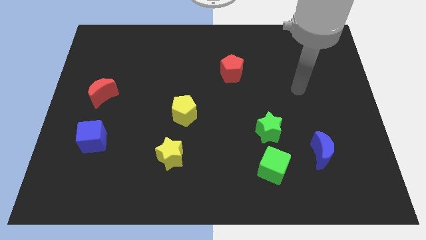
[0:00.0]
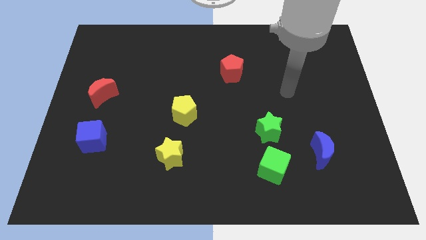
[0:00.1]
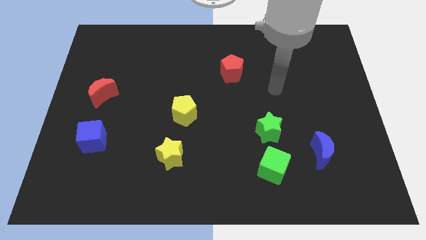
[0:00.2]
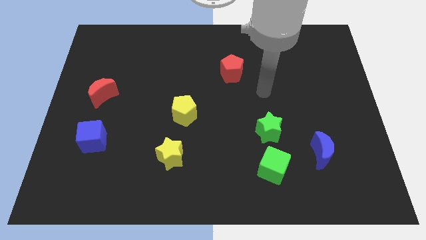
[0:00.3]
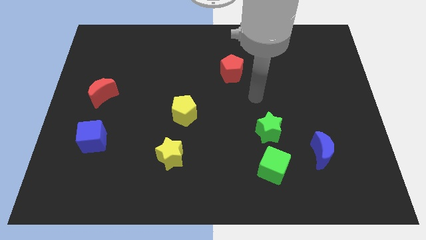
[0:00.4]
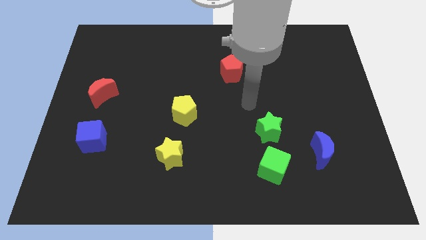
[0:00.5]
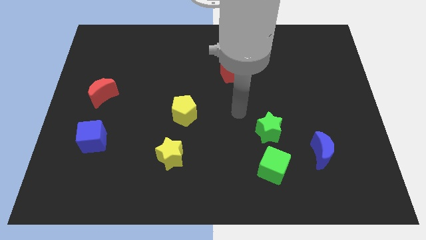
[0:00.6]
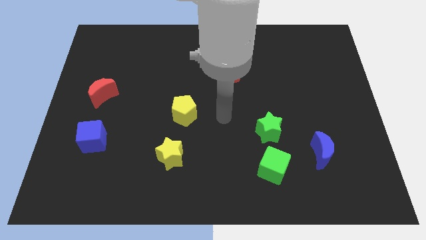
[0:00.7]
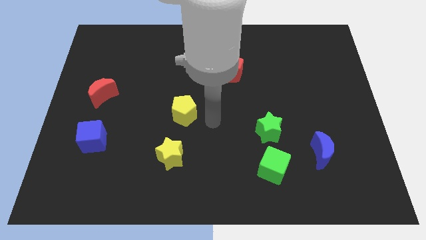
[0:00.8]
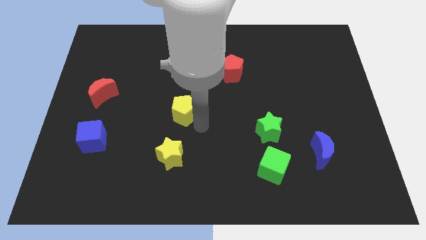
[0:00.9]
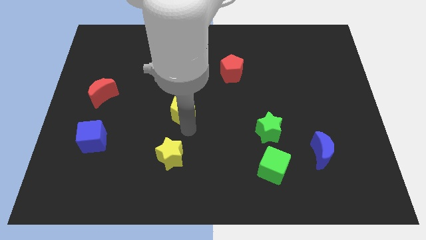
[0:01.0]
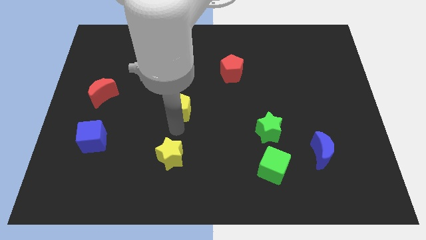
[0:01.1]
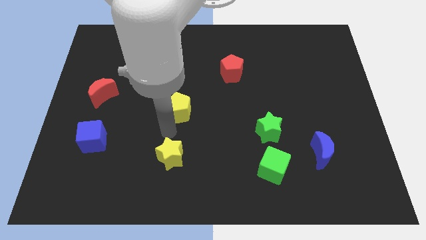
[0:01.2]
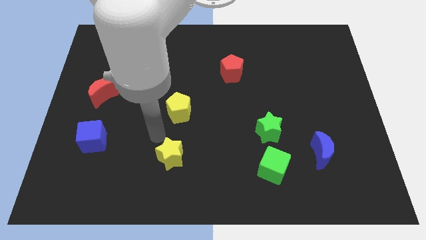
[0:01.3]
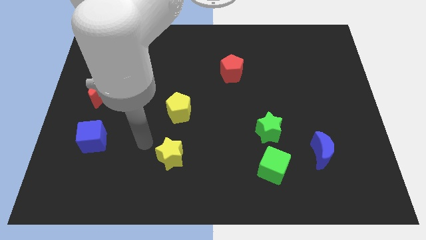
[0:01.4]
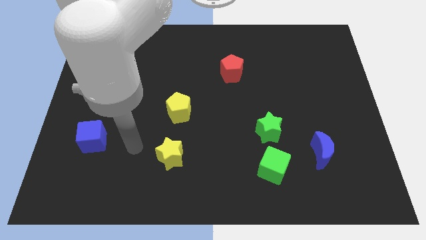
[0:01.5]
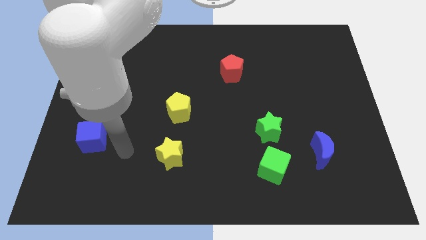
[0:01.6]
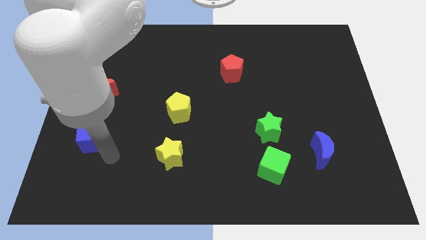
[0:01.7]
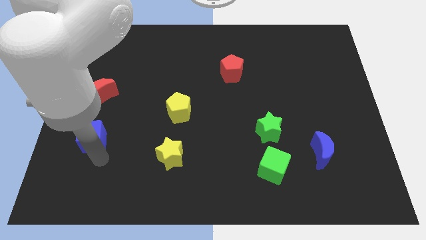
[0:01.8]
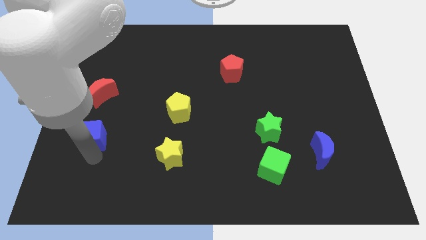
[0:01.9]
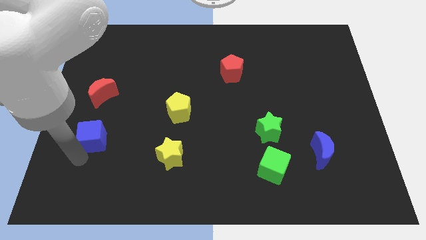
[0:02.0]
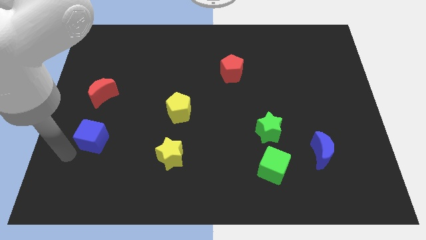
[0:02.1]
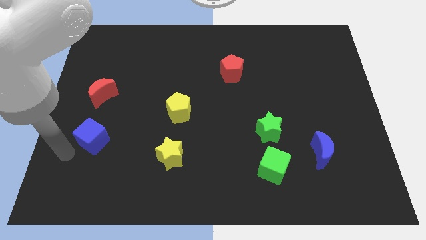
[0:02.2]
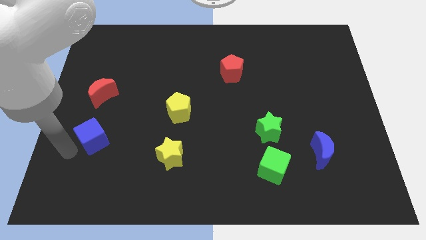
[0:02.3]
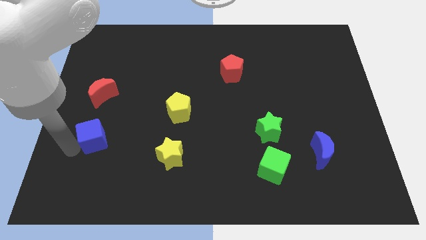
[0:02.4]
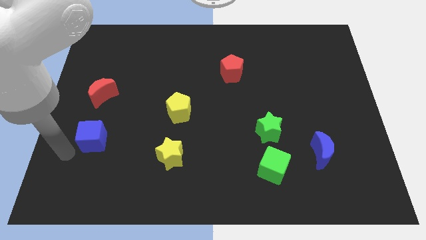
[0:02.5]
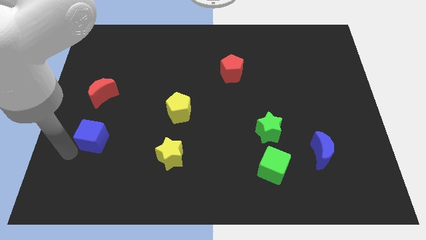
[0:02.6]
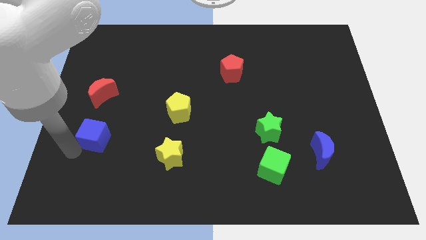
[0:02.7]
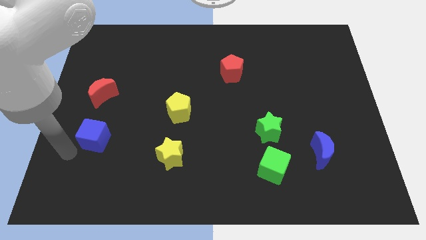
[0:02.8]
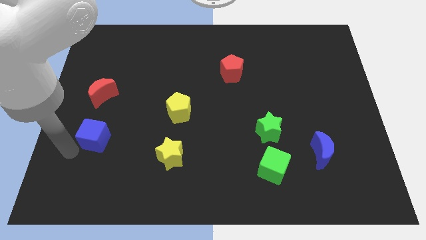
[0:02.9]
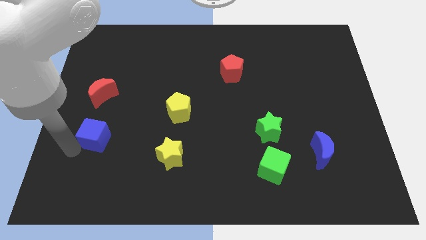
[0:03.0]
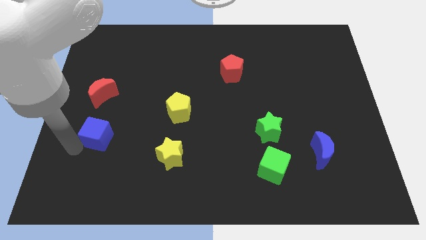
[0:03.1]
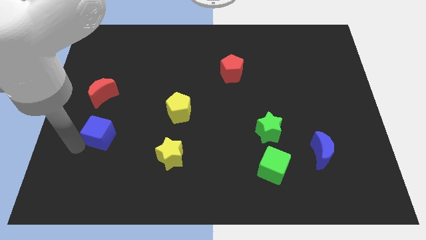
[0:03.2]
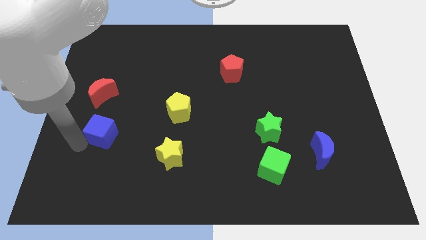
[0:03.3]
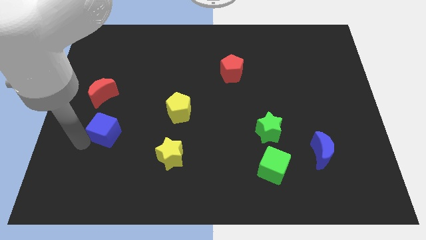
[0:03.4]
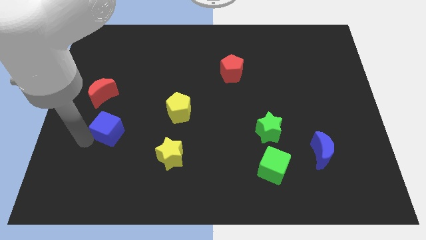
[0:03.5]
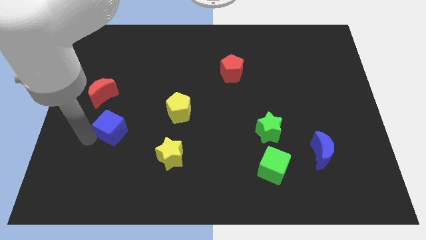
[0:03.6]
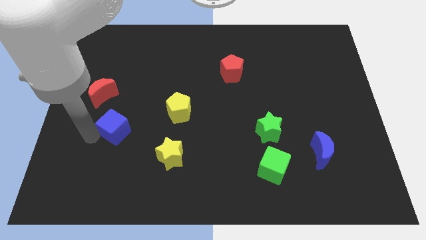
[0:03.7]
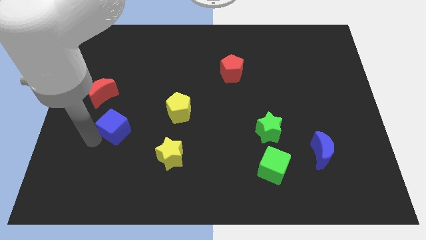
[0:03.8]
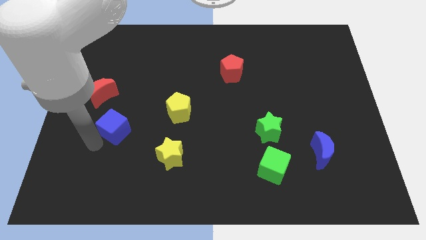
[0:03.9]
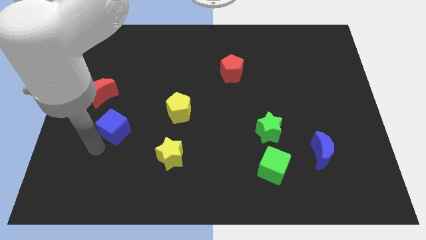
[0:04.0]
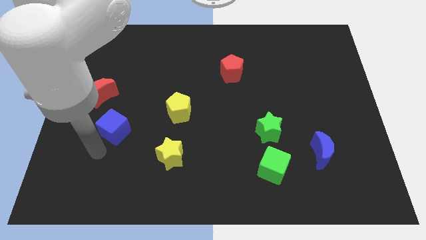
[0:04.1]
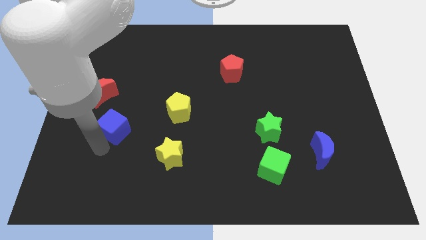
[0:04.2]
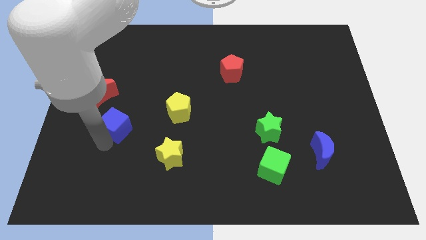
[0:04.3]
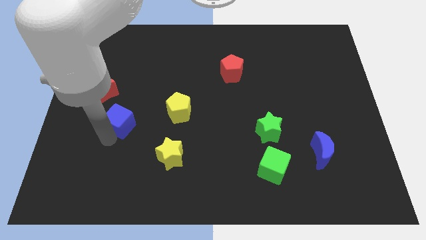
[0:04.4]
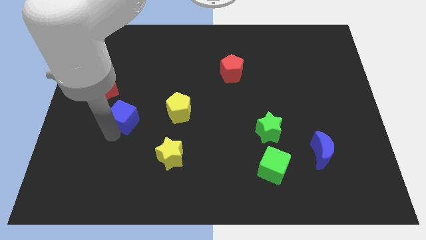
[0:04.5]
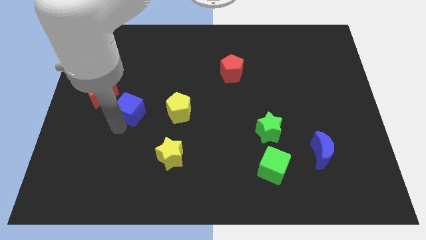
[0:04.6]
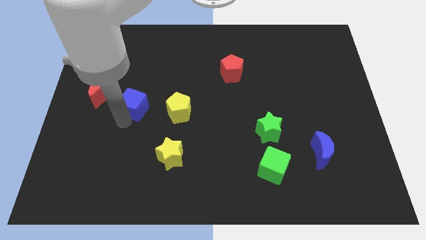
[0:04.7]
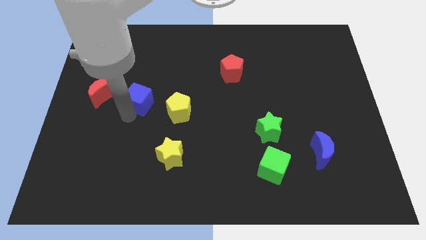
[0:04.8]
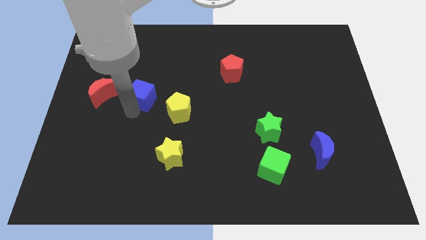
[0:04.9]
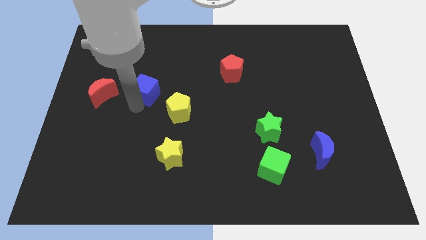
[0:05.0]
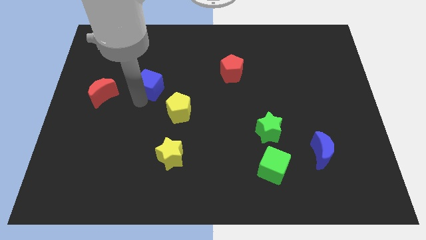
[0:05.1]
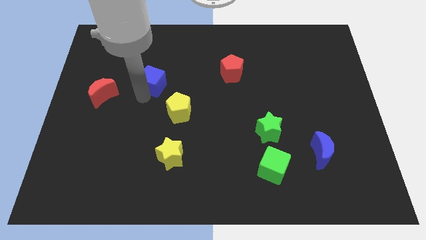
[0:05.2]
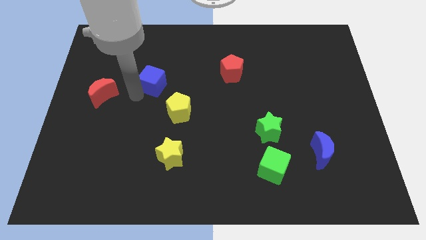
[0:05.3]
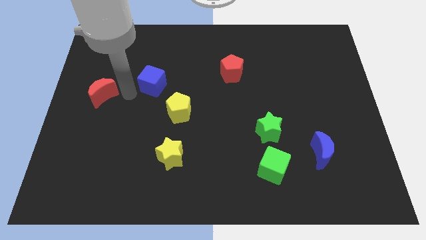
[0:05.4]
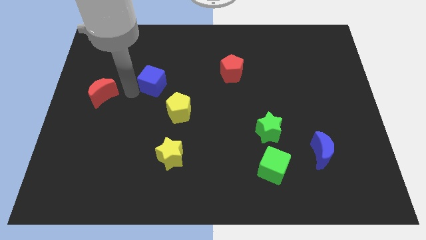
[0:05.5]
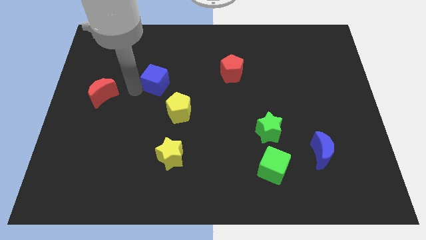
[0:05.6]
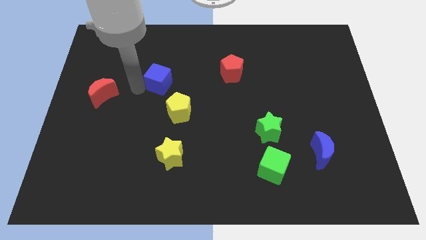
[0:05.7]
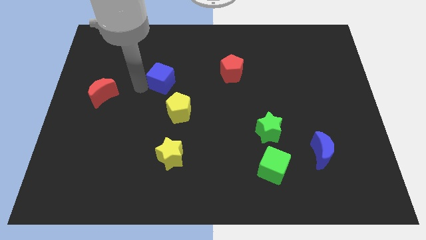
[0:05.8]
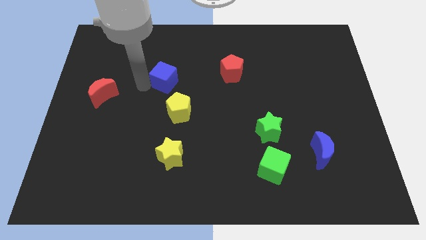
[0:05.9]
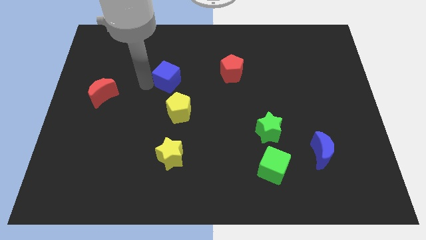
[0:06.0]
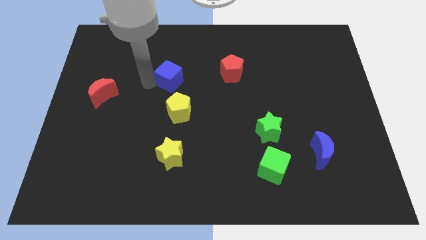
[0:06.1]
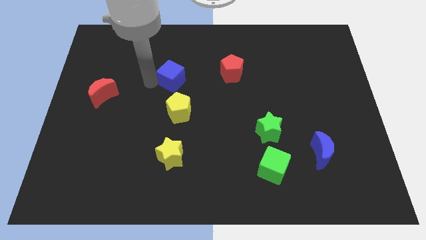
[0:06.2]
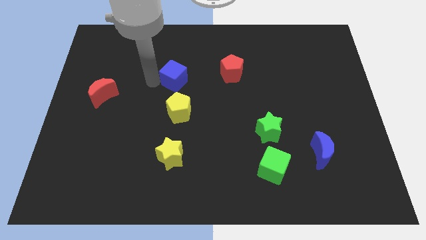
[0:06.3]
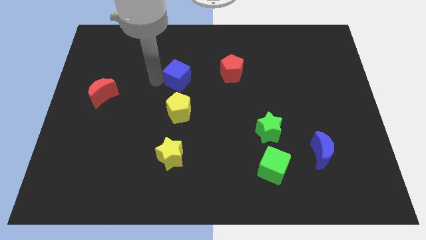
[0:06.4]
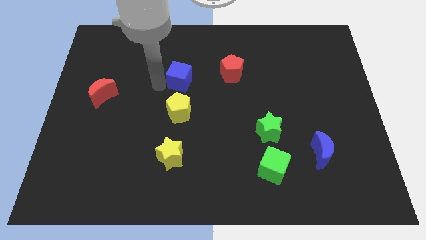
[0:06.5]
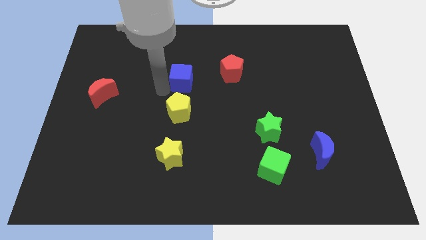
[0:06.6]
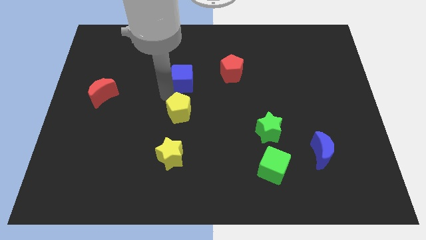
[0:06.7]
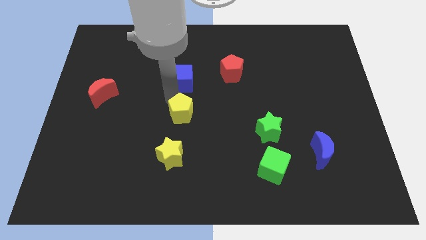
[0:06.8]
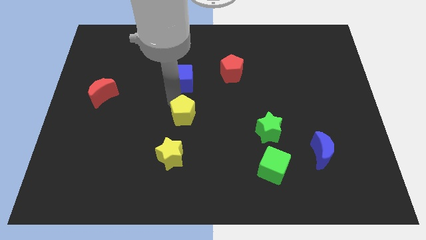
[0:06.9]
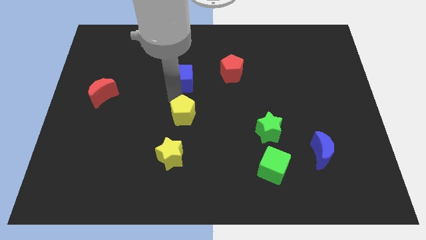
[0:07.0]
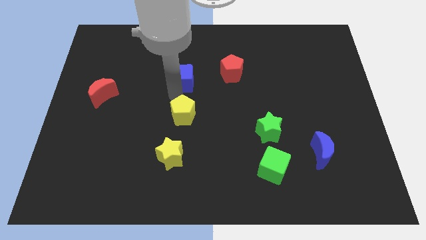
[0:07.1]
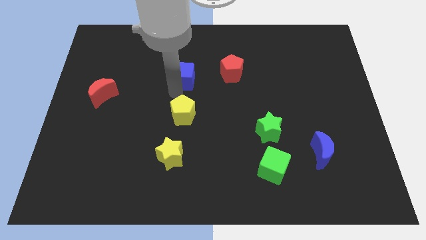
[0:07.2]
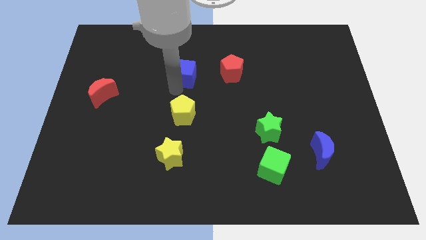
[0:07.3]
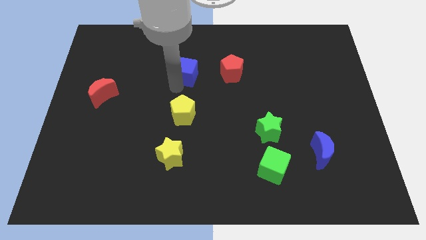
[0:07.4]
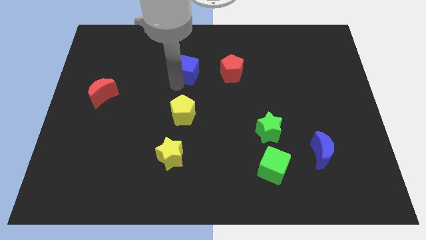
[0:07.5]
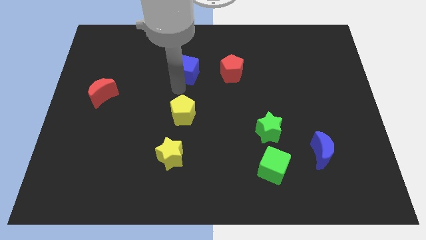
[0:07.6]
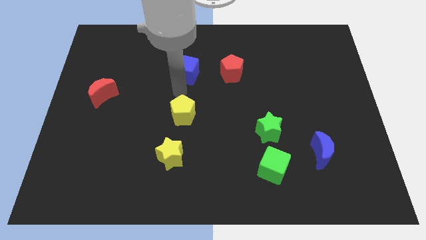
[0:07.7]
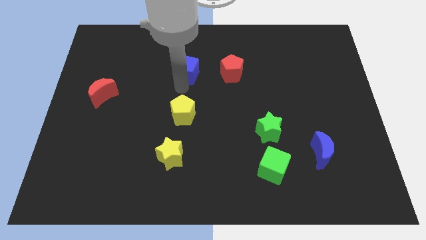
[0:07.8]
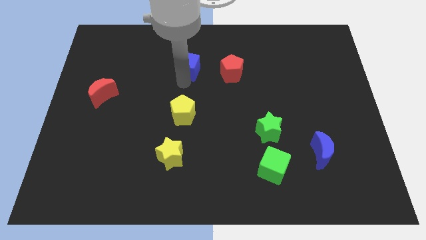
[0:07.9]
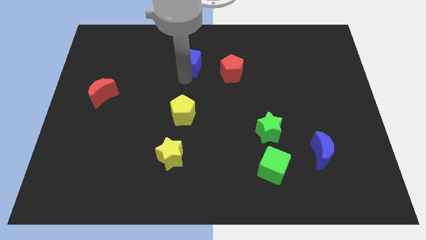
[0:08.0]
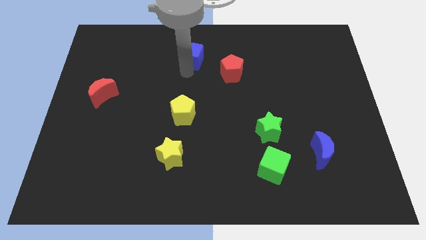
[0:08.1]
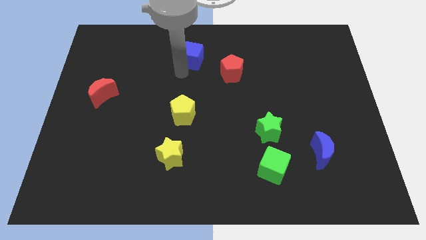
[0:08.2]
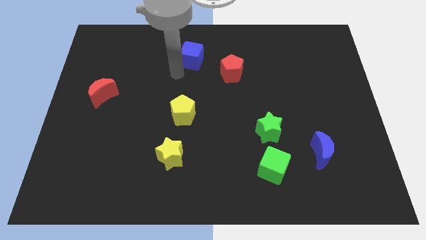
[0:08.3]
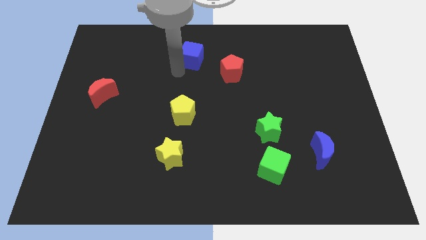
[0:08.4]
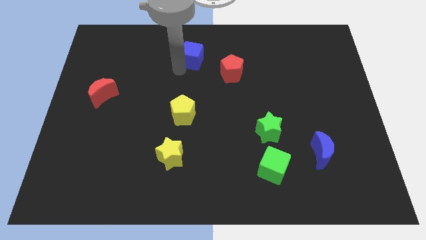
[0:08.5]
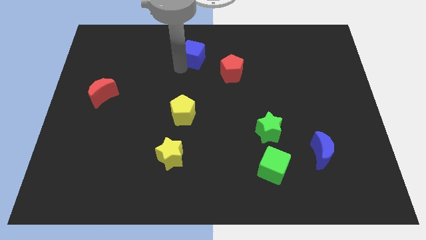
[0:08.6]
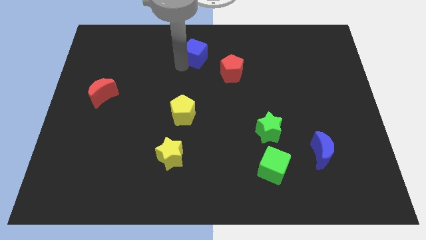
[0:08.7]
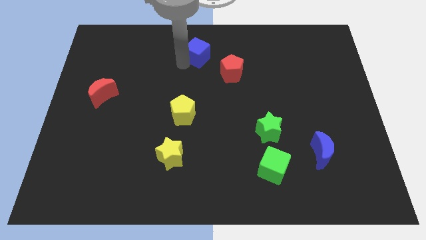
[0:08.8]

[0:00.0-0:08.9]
put the blue cube to the top
